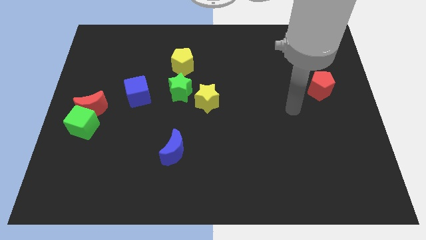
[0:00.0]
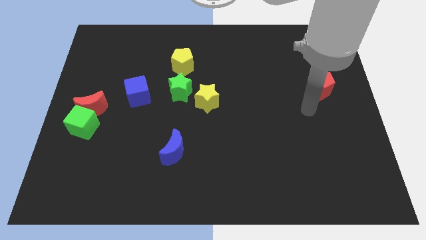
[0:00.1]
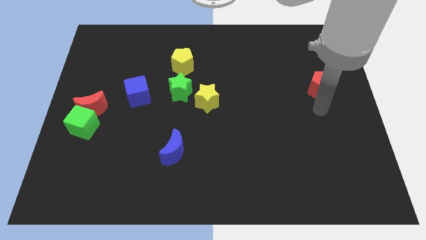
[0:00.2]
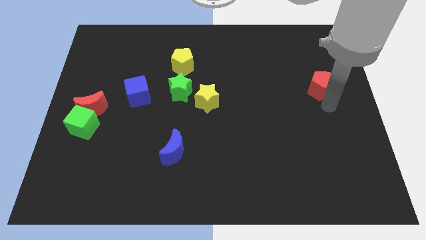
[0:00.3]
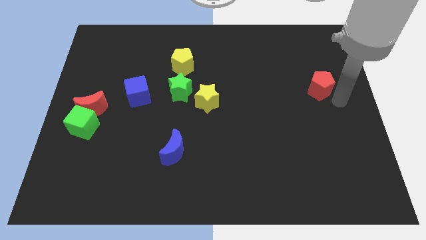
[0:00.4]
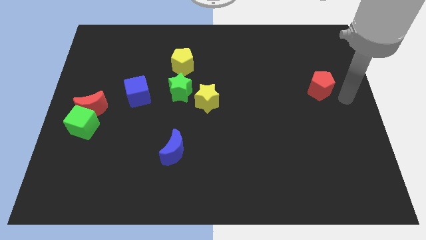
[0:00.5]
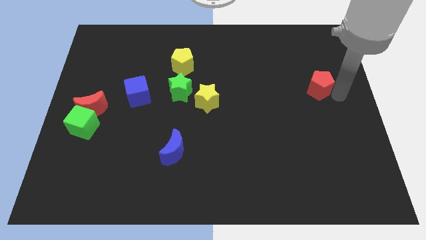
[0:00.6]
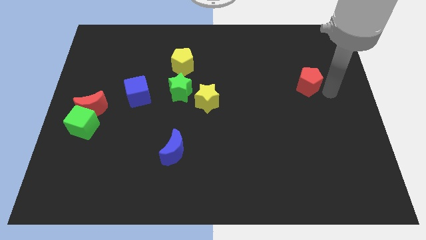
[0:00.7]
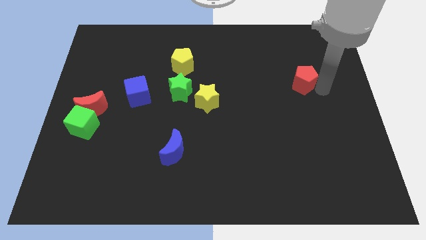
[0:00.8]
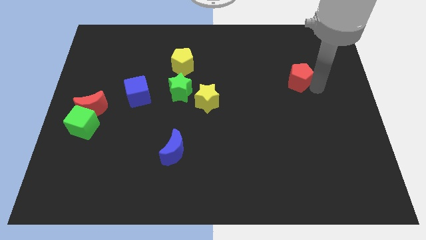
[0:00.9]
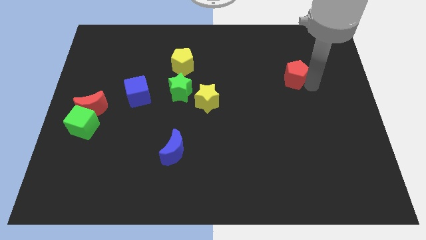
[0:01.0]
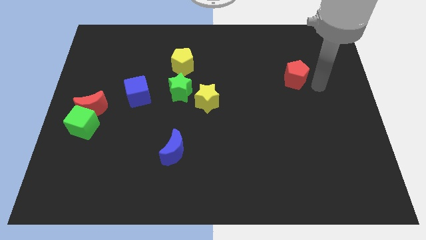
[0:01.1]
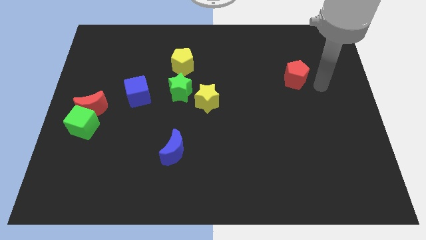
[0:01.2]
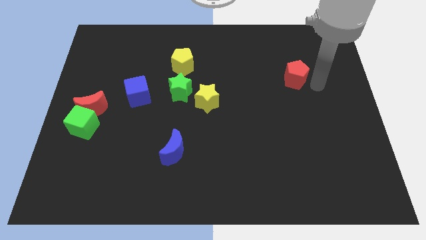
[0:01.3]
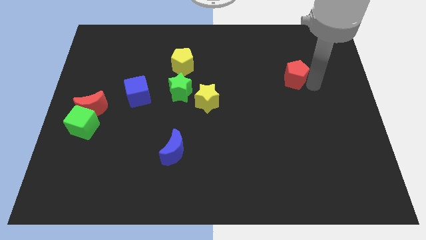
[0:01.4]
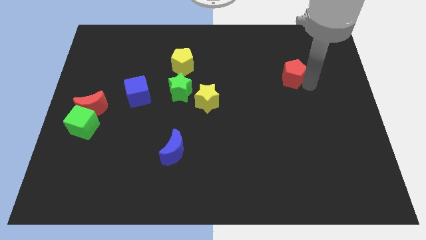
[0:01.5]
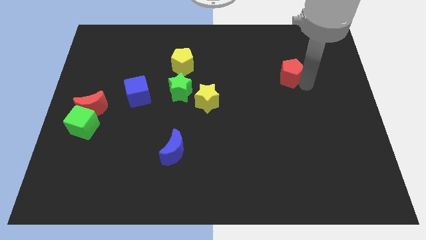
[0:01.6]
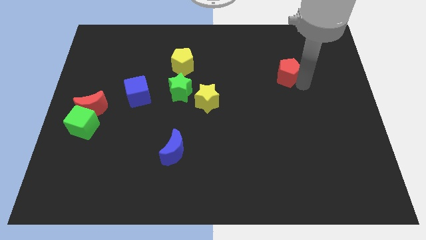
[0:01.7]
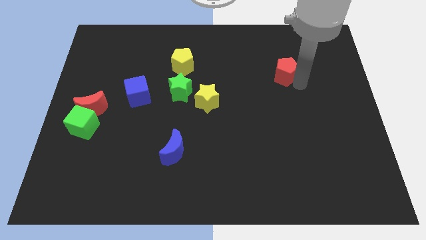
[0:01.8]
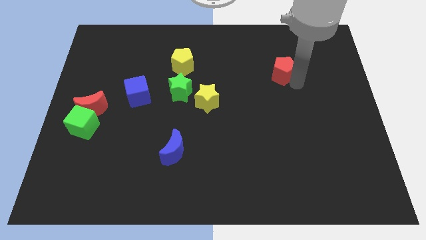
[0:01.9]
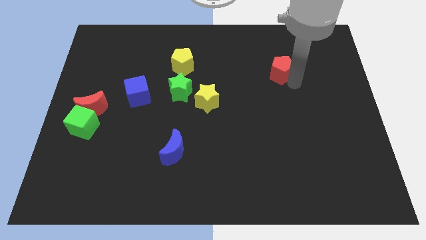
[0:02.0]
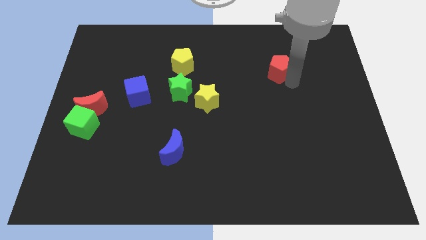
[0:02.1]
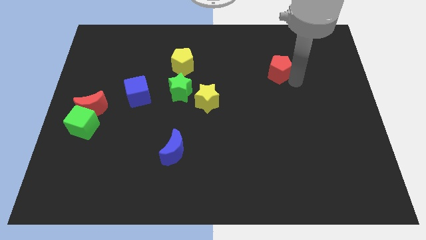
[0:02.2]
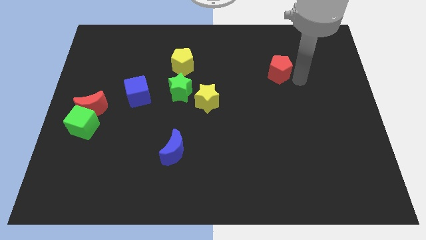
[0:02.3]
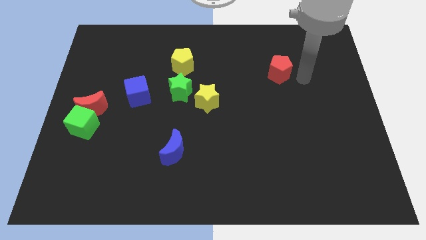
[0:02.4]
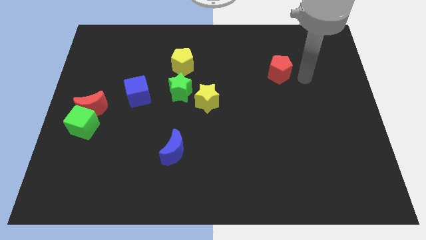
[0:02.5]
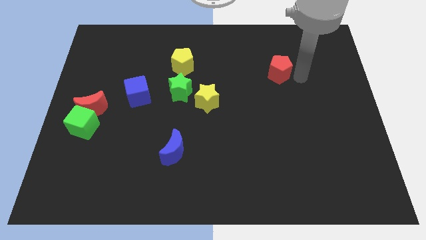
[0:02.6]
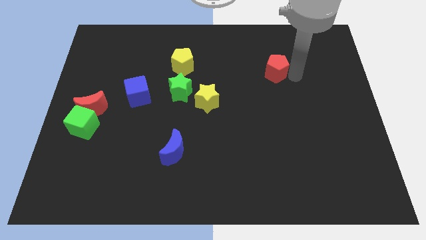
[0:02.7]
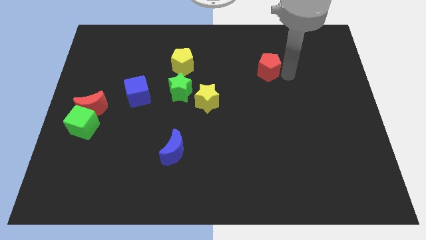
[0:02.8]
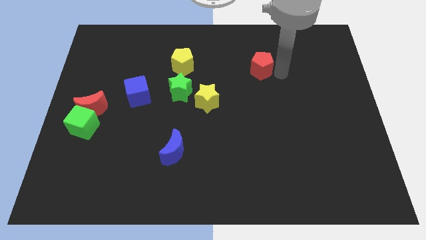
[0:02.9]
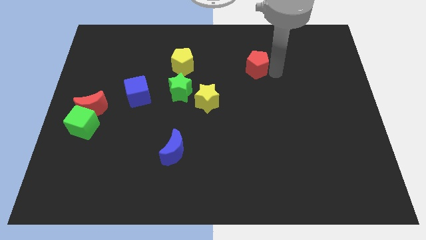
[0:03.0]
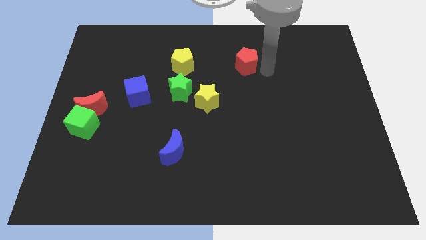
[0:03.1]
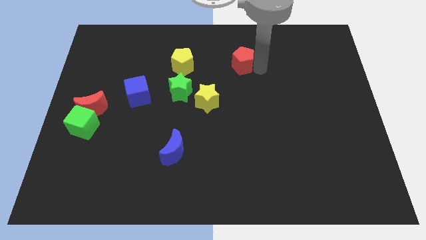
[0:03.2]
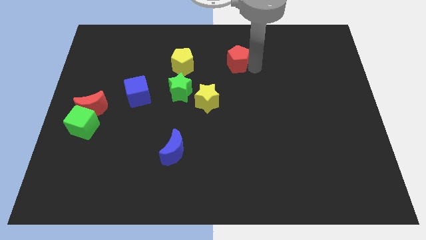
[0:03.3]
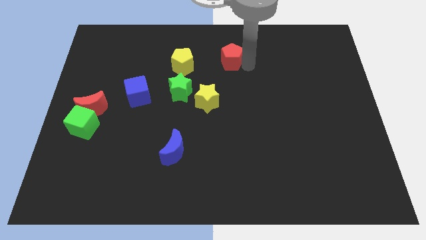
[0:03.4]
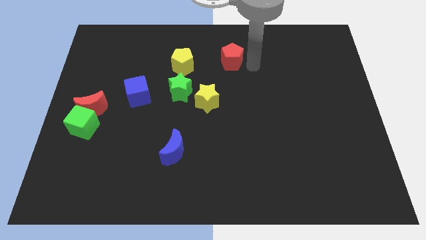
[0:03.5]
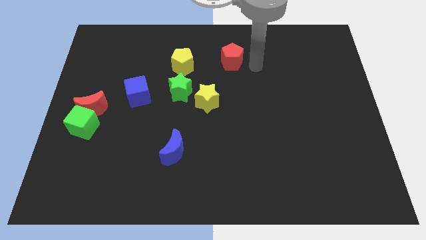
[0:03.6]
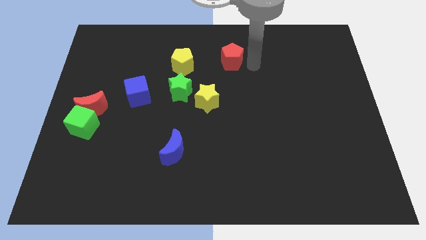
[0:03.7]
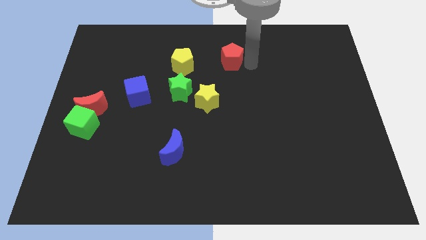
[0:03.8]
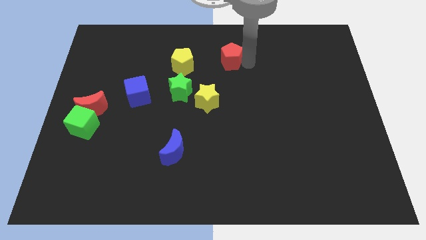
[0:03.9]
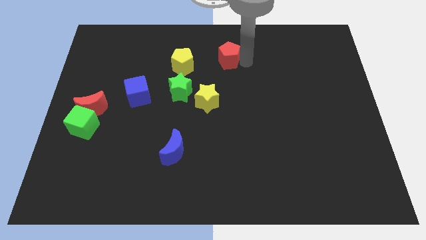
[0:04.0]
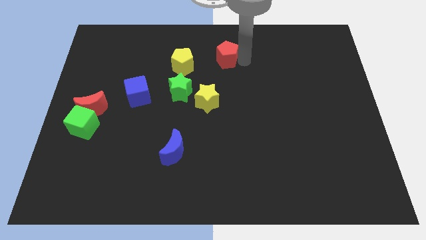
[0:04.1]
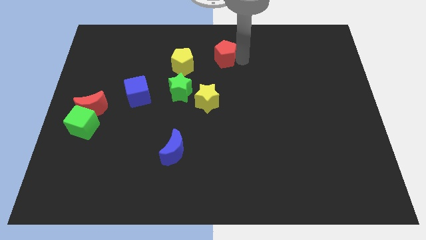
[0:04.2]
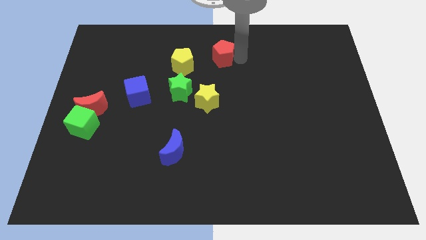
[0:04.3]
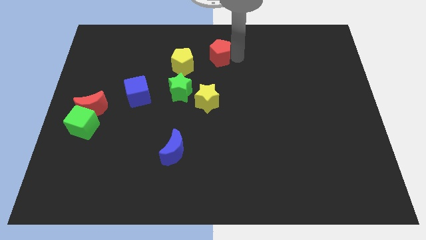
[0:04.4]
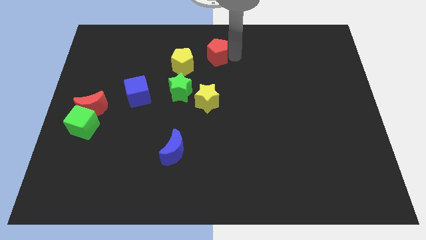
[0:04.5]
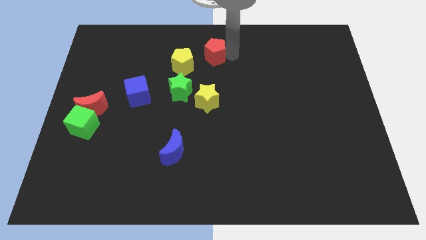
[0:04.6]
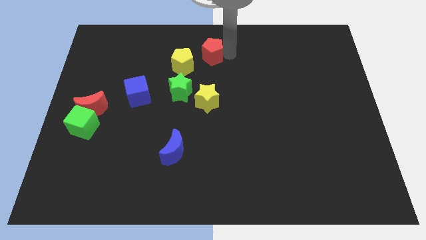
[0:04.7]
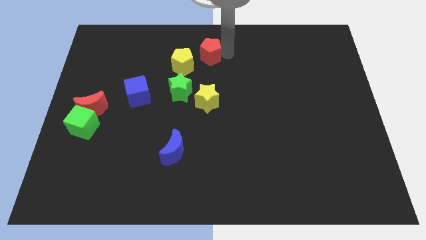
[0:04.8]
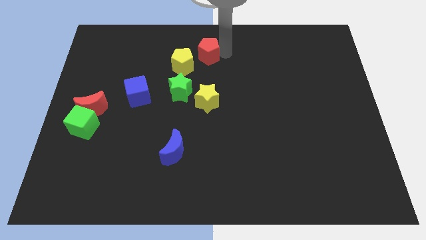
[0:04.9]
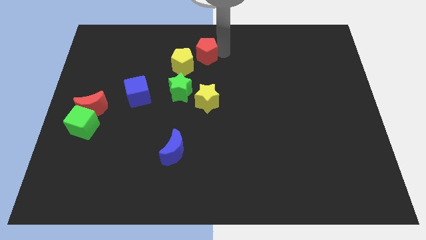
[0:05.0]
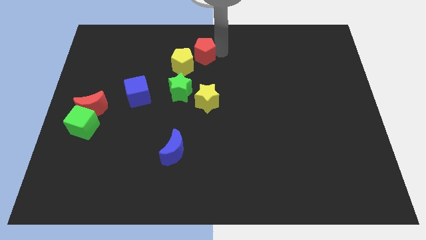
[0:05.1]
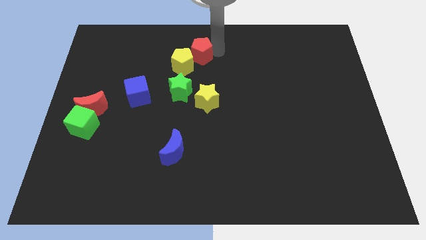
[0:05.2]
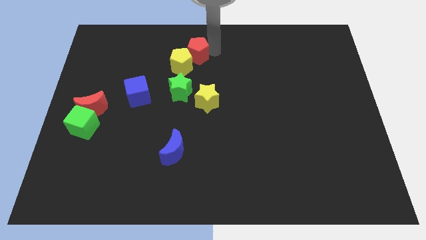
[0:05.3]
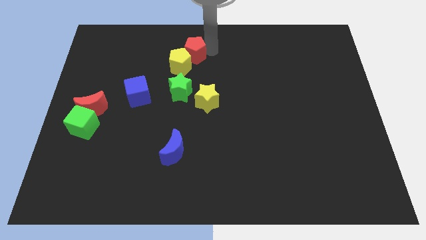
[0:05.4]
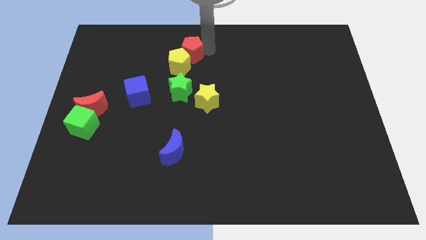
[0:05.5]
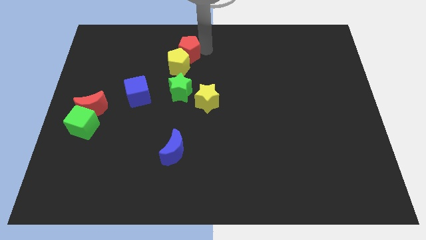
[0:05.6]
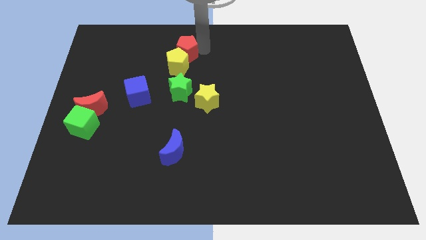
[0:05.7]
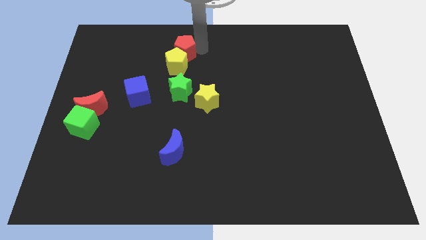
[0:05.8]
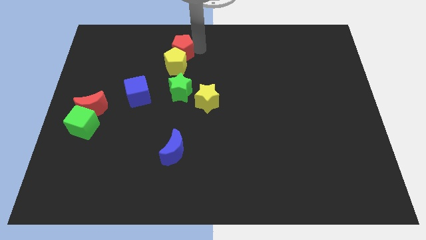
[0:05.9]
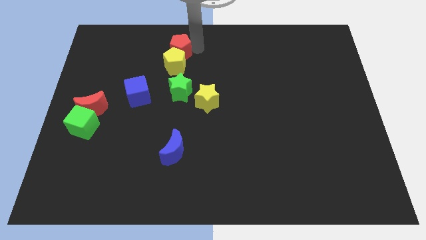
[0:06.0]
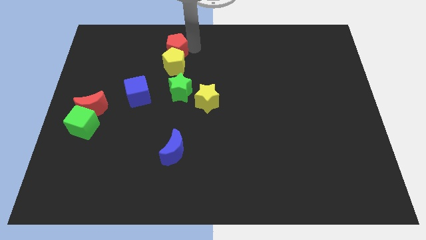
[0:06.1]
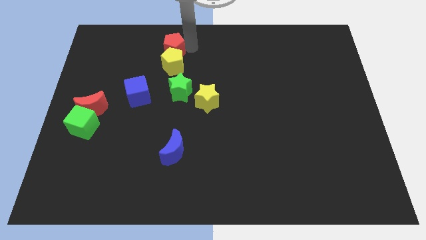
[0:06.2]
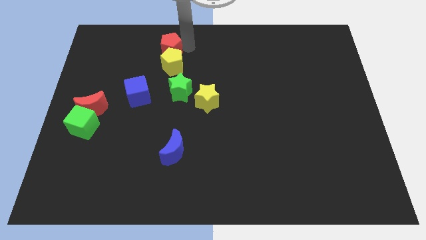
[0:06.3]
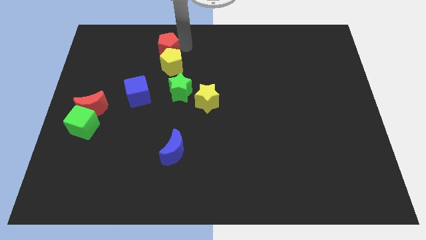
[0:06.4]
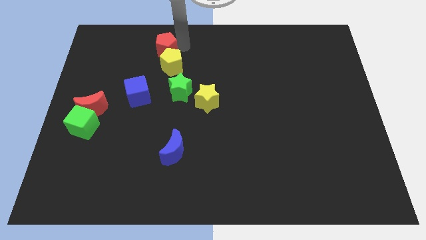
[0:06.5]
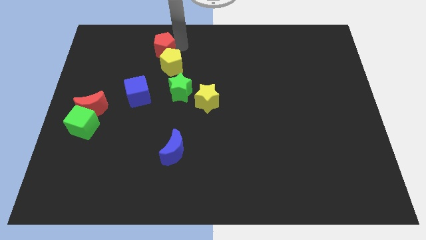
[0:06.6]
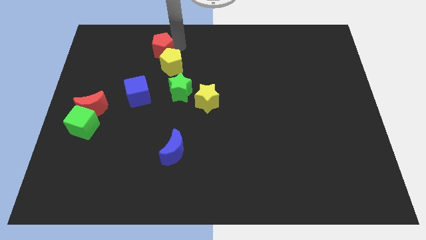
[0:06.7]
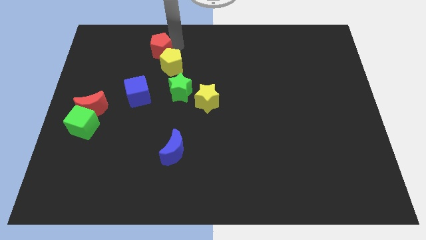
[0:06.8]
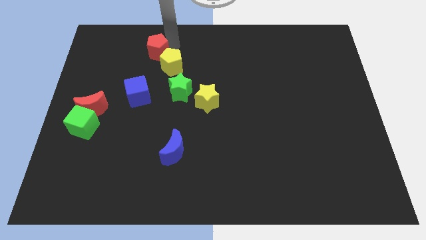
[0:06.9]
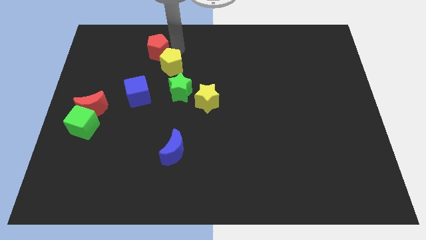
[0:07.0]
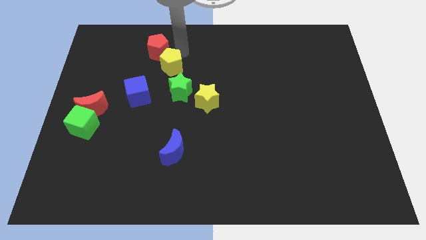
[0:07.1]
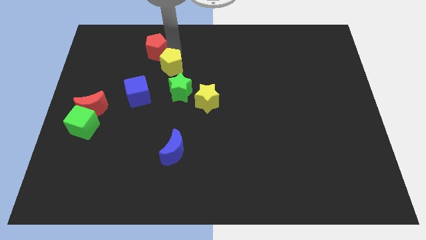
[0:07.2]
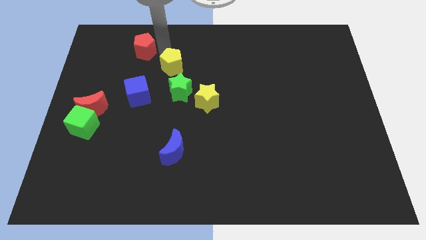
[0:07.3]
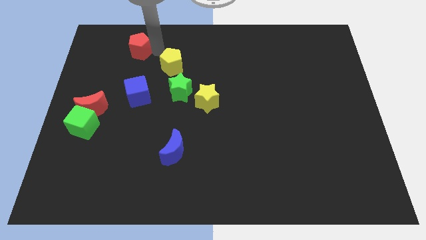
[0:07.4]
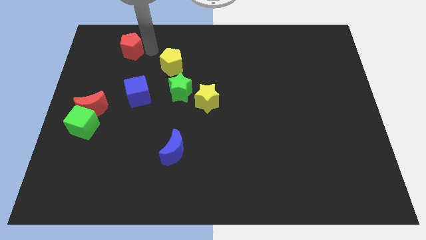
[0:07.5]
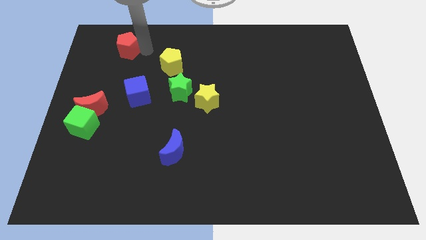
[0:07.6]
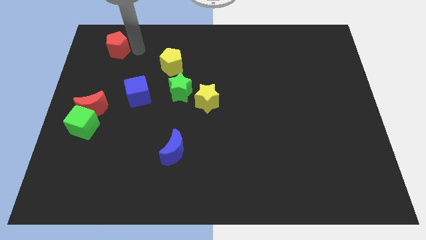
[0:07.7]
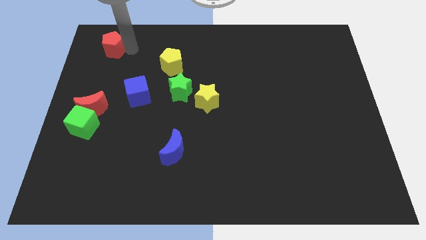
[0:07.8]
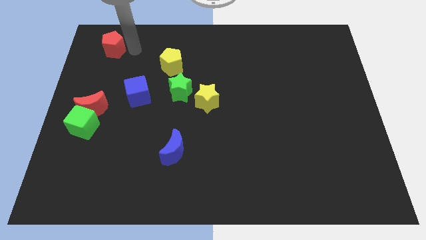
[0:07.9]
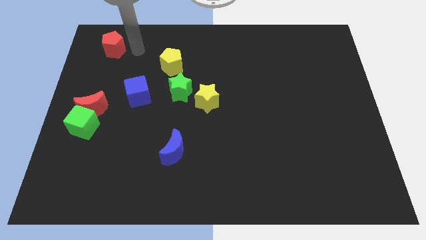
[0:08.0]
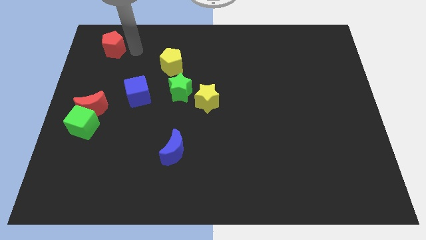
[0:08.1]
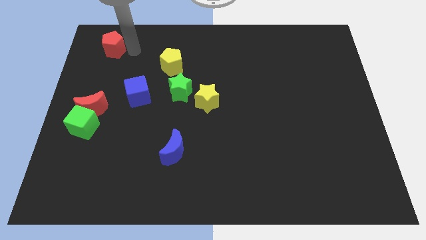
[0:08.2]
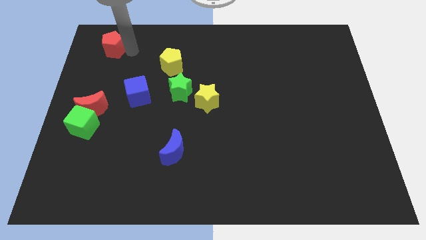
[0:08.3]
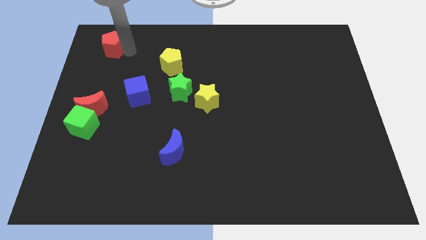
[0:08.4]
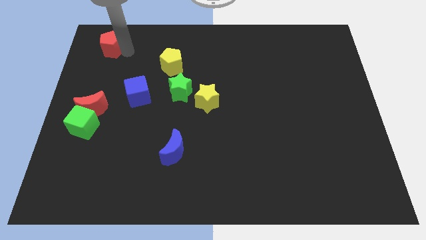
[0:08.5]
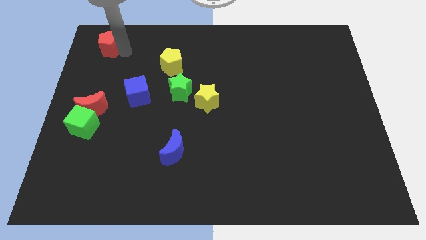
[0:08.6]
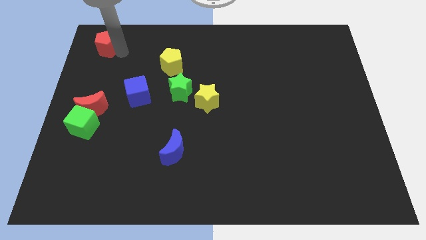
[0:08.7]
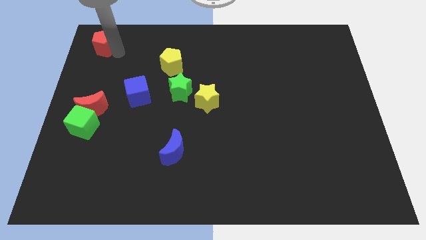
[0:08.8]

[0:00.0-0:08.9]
move the red pentagon to the top left corner
